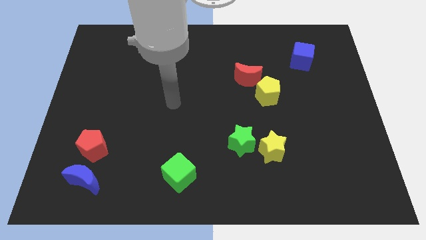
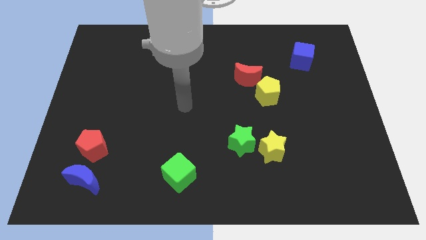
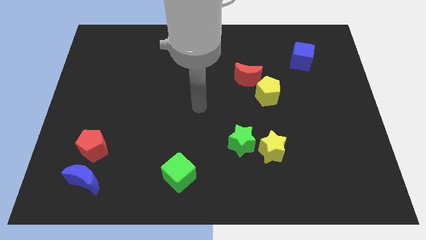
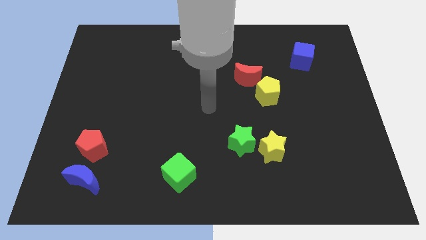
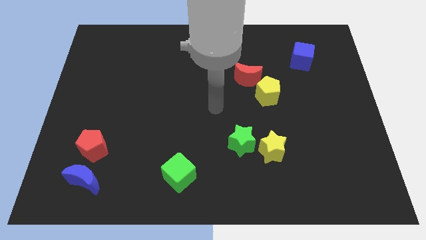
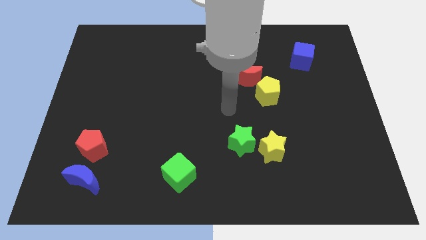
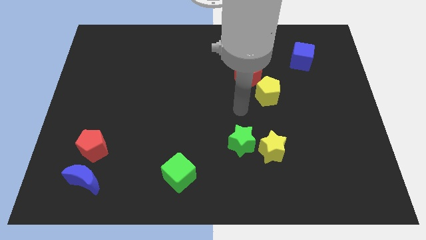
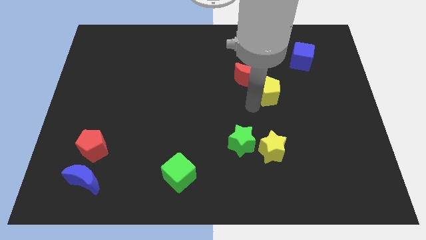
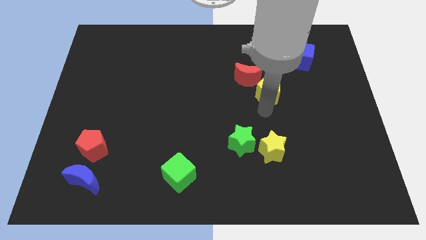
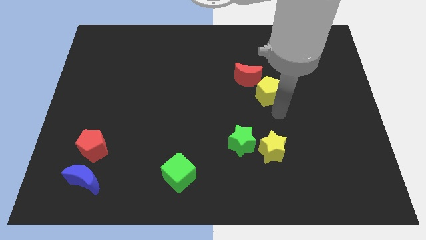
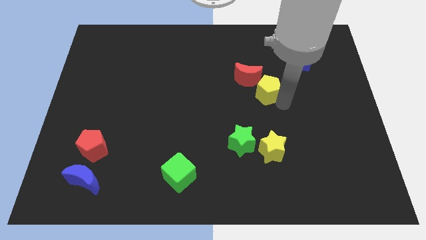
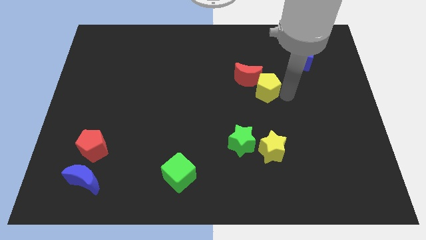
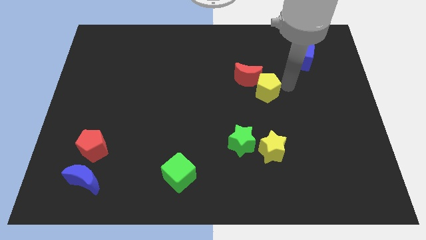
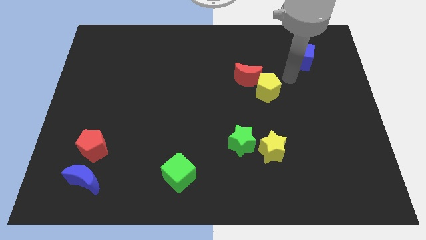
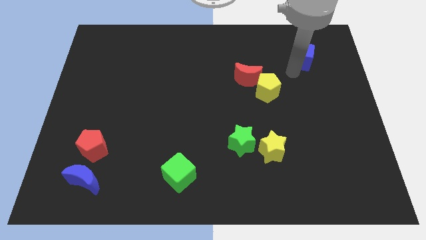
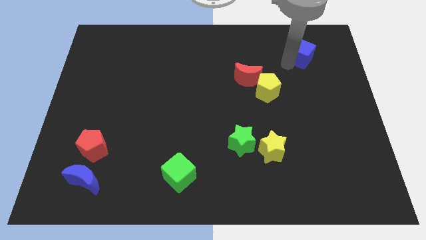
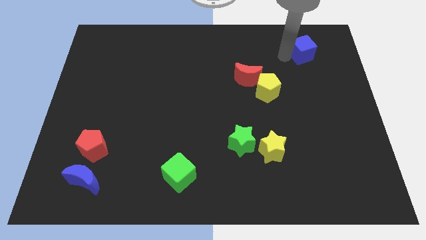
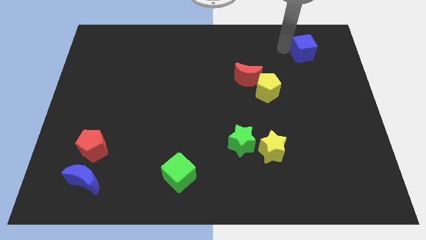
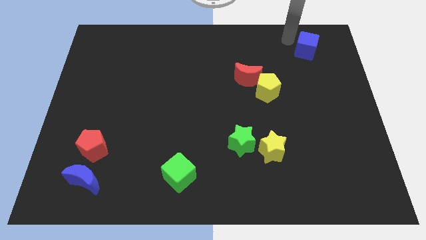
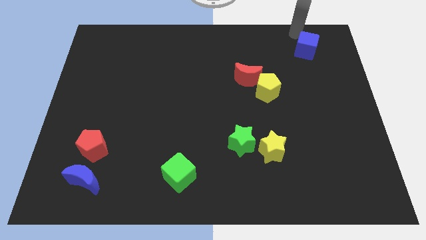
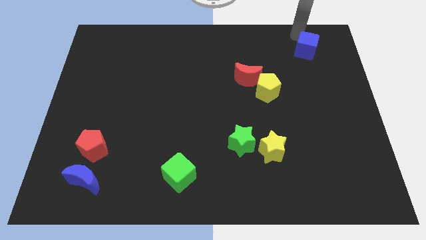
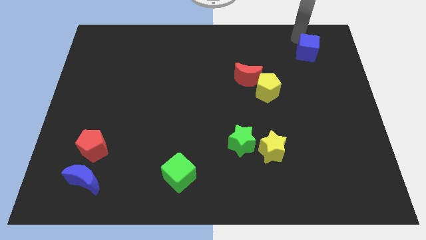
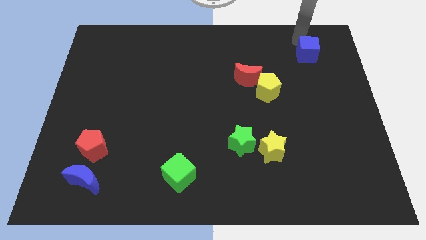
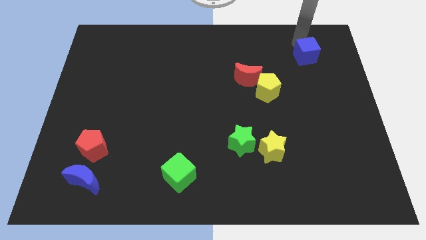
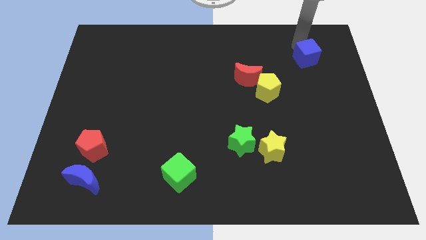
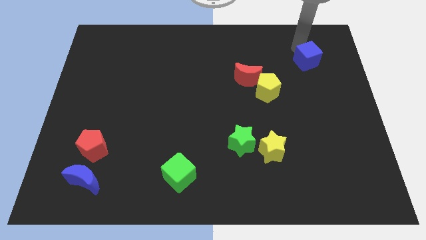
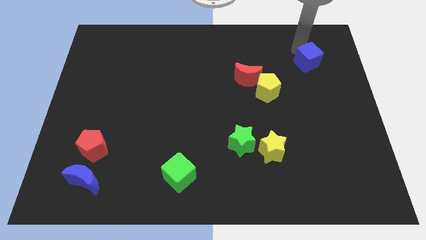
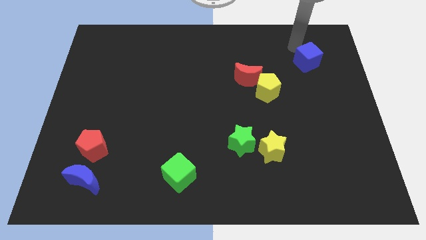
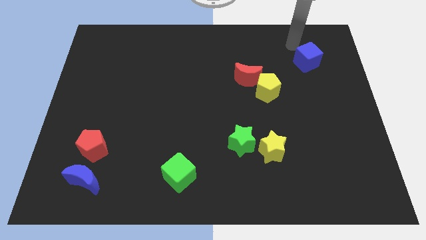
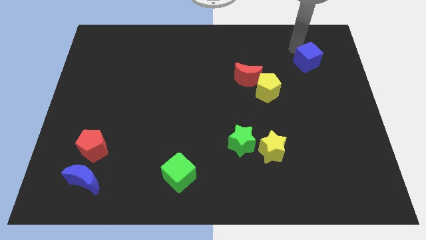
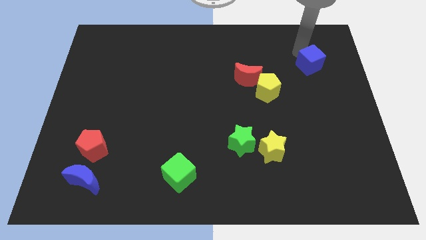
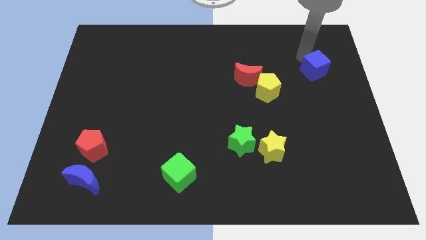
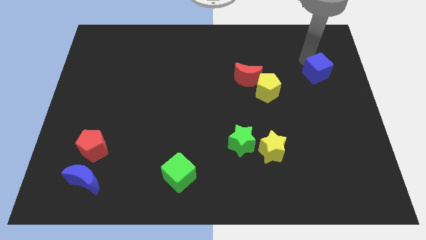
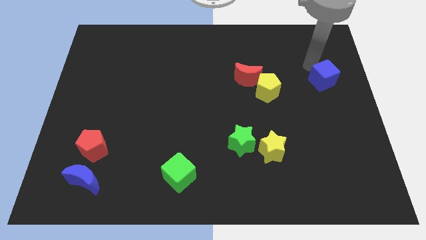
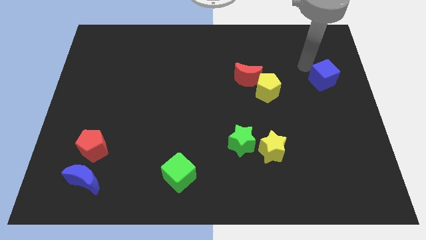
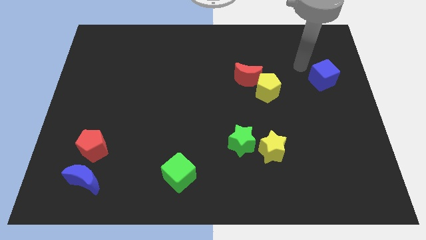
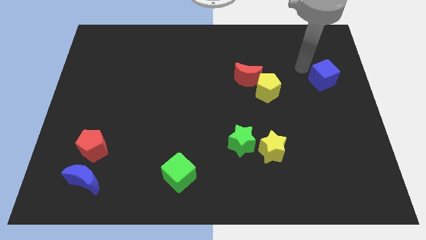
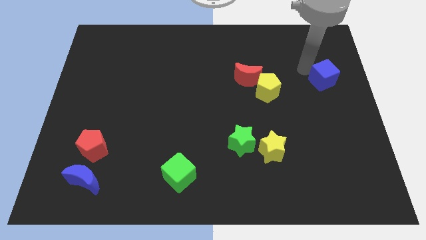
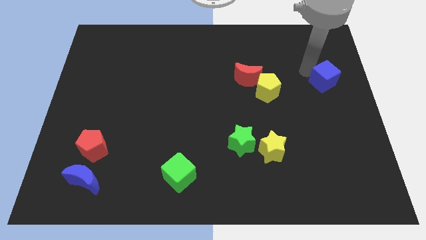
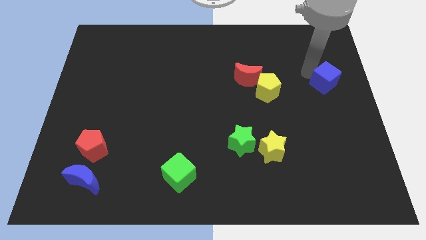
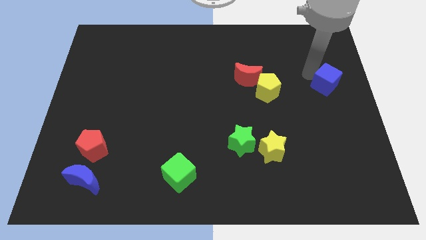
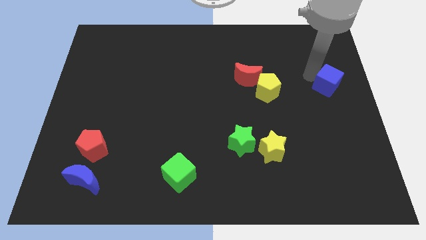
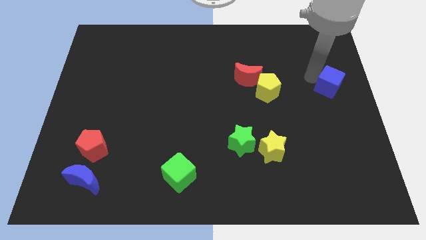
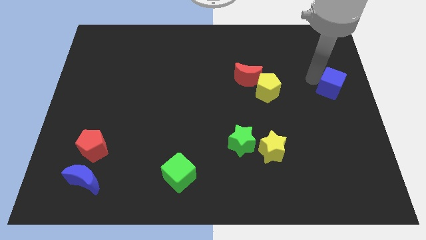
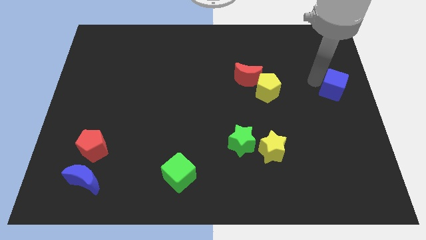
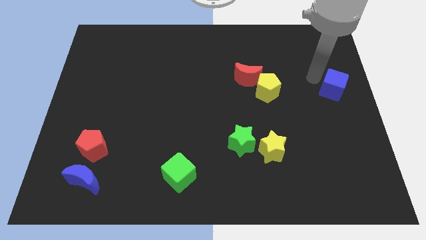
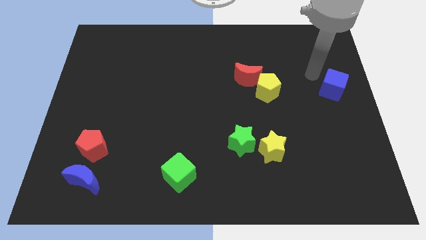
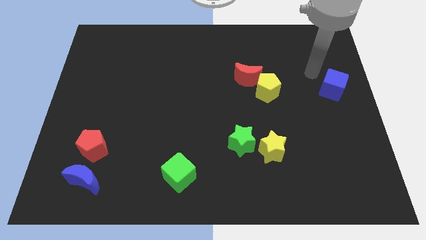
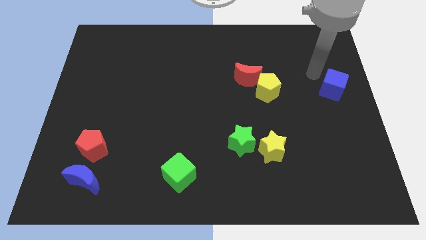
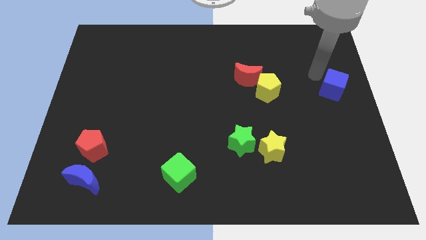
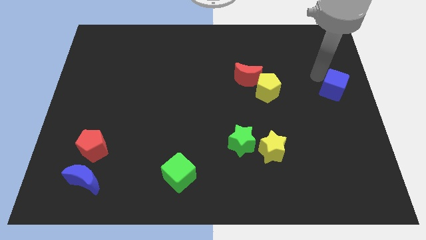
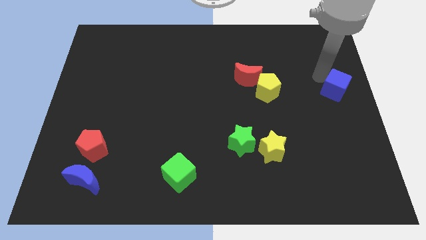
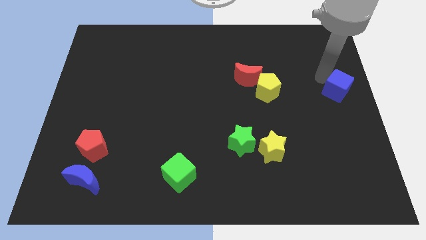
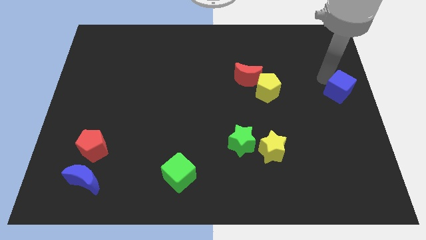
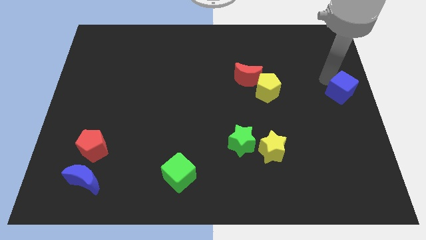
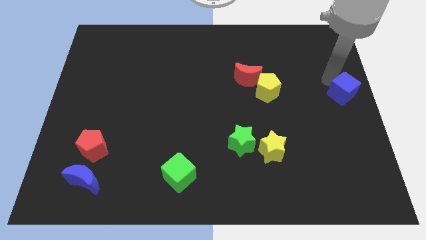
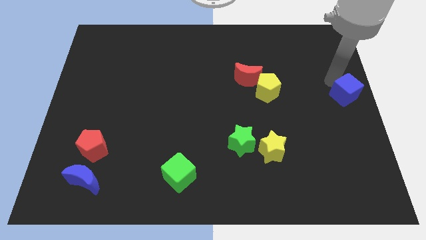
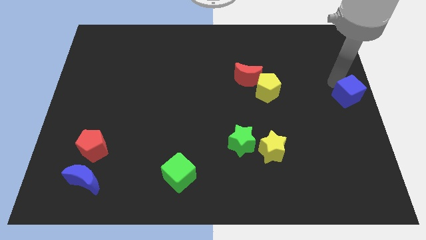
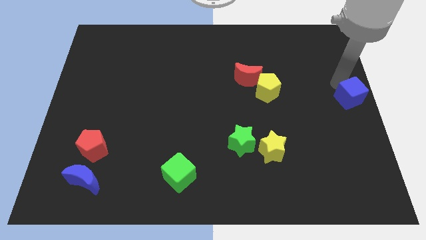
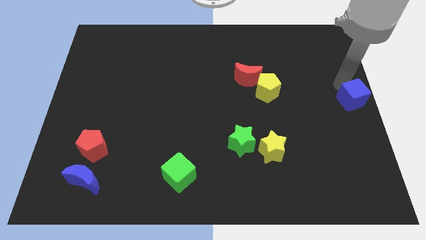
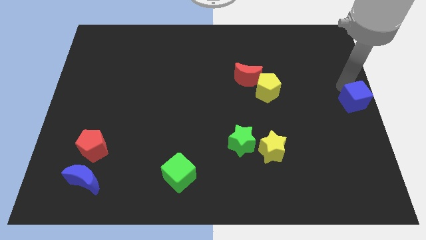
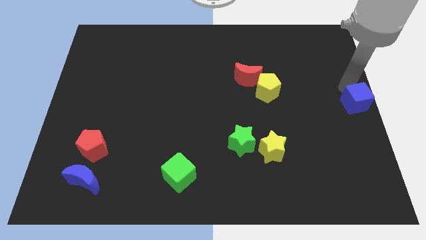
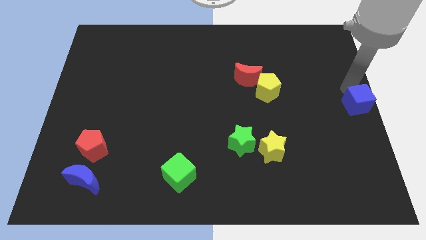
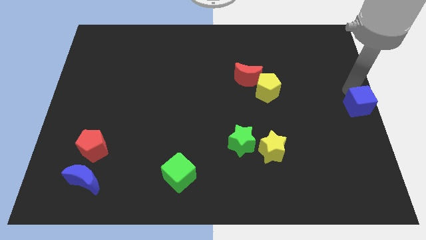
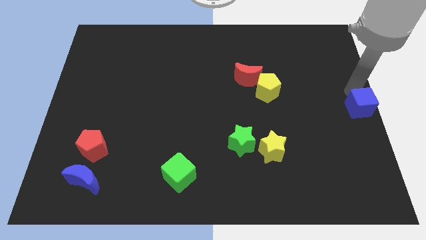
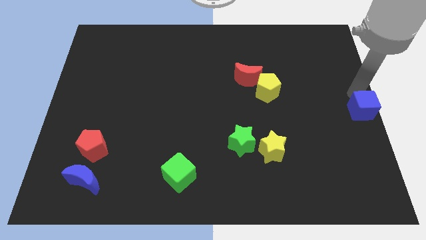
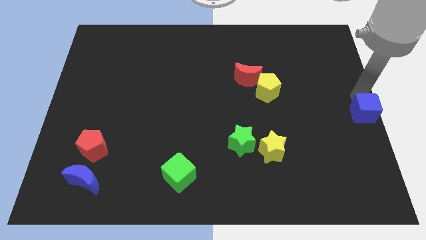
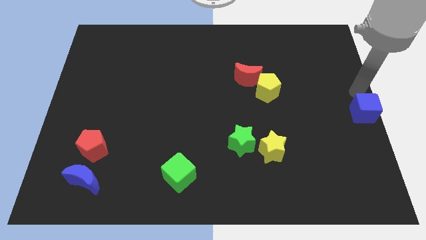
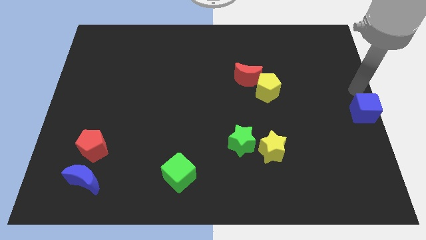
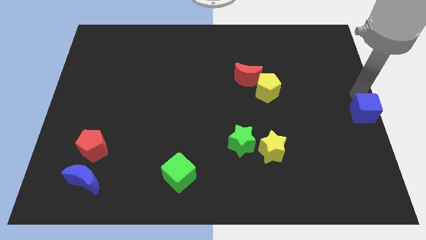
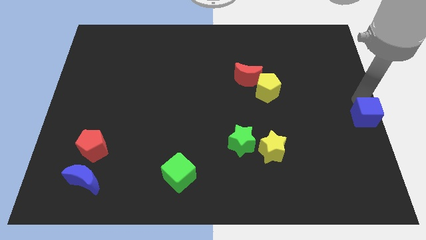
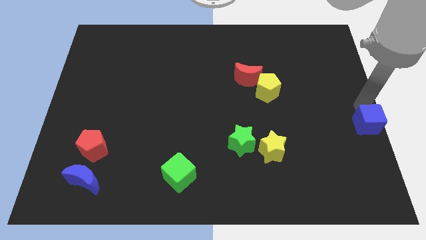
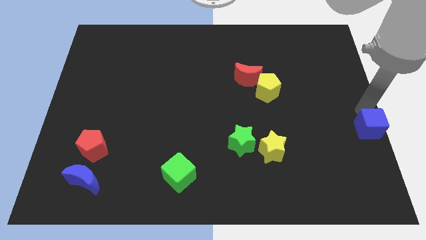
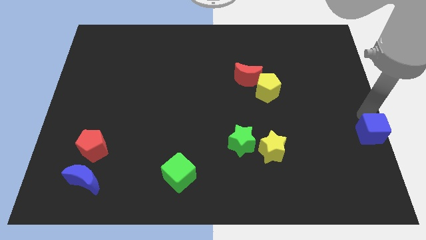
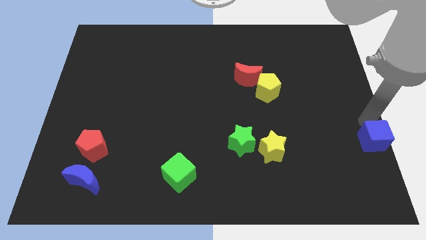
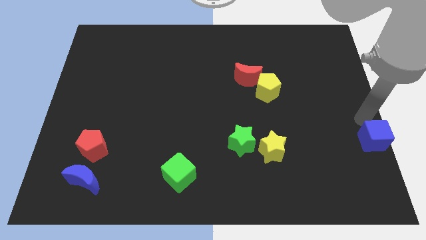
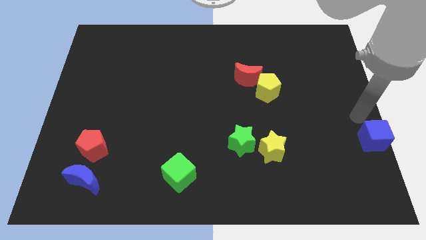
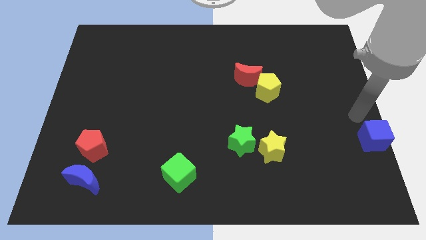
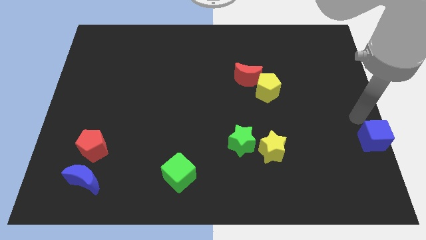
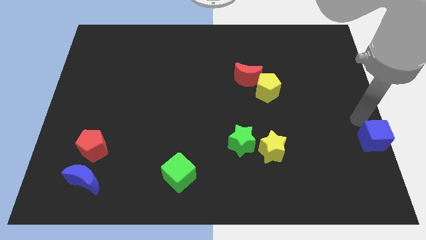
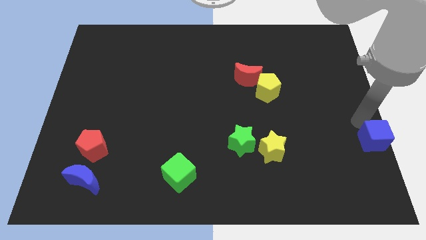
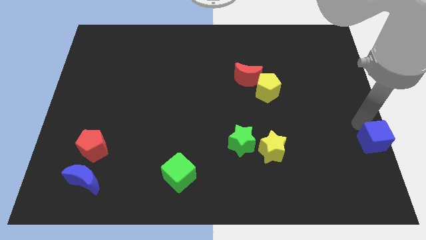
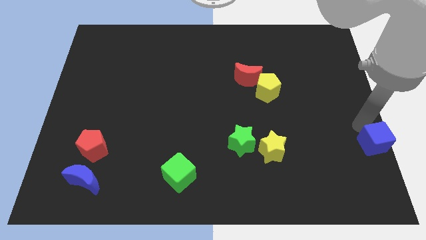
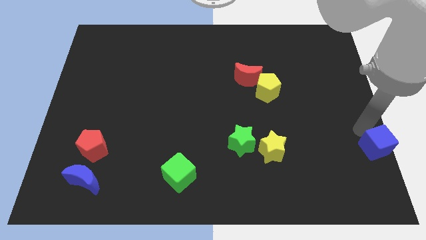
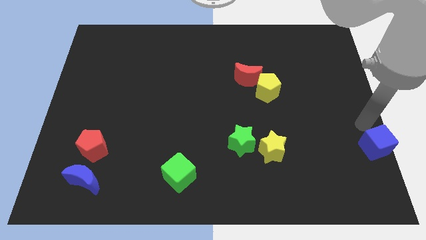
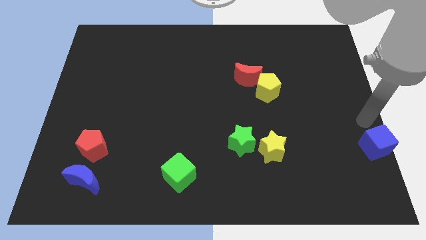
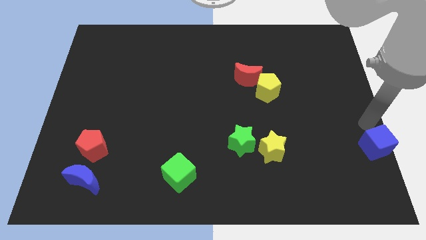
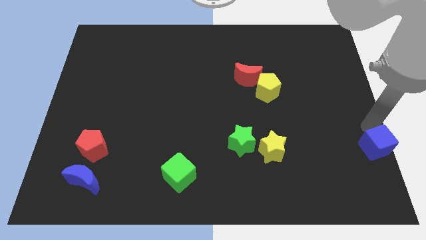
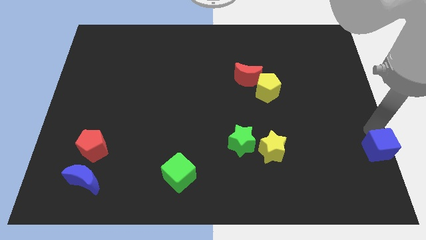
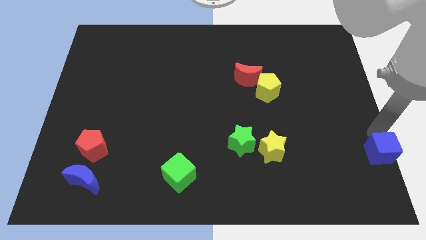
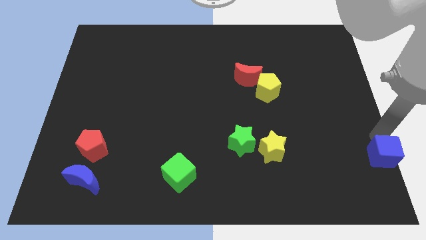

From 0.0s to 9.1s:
move the blue cube to the bottom right of the board
